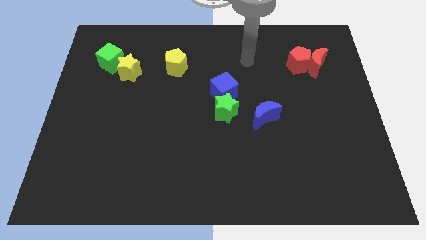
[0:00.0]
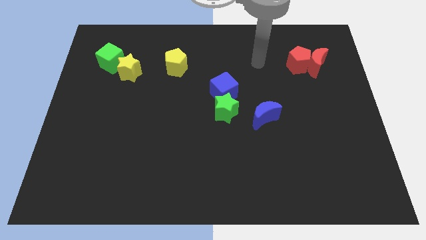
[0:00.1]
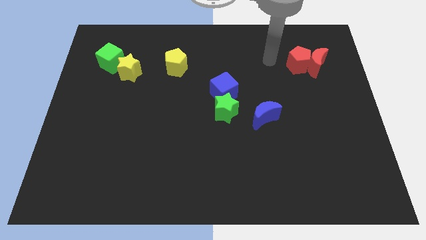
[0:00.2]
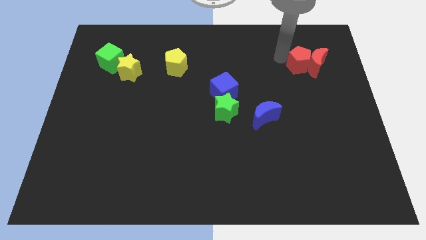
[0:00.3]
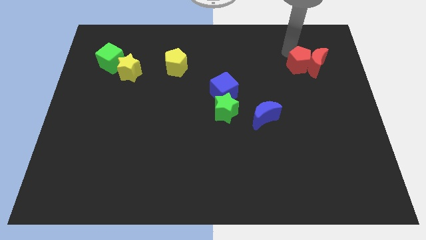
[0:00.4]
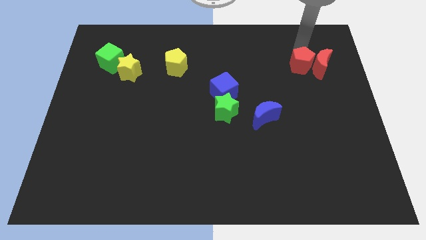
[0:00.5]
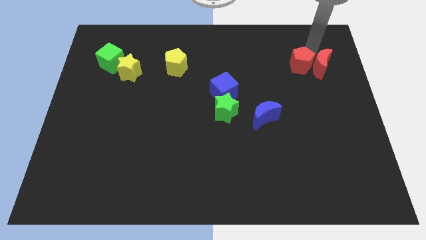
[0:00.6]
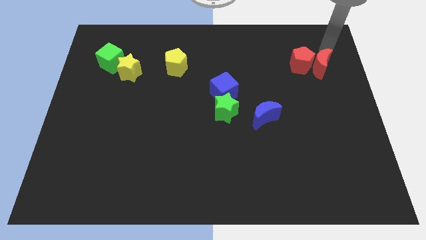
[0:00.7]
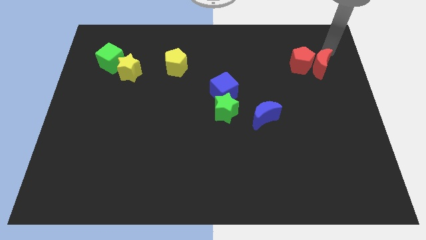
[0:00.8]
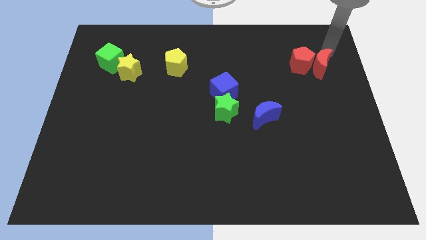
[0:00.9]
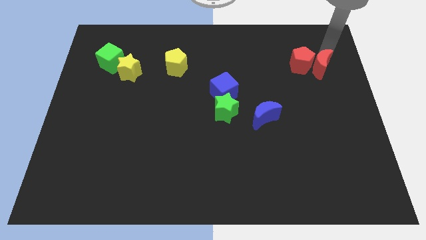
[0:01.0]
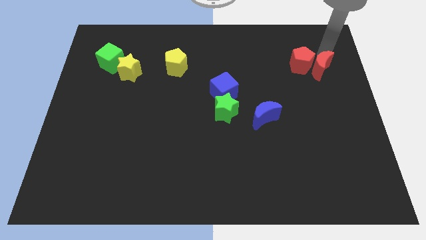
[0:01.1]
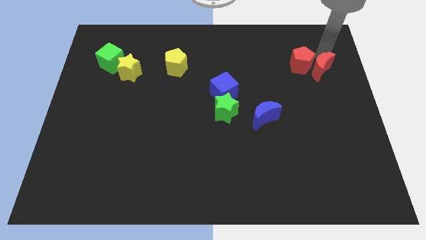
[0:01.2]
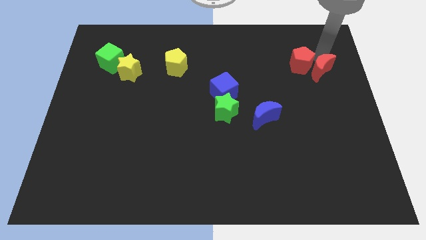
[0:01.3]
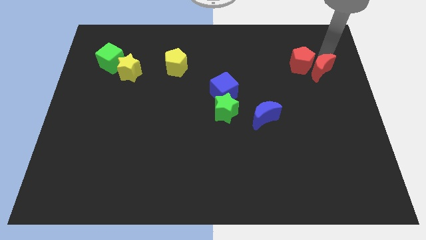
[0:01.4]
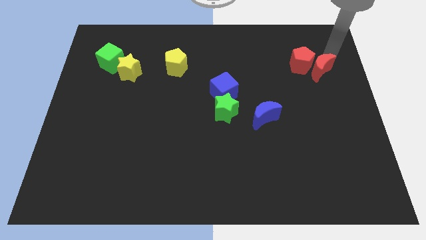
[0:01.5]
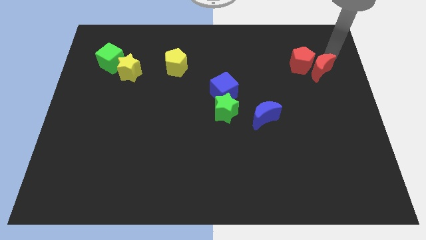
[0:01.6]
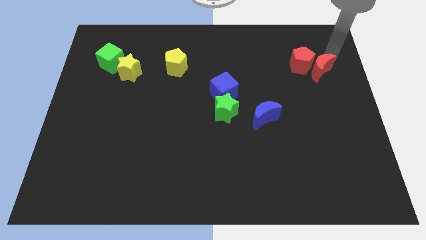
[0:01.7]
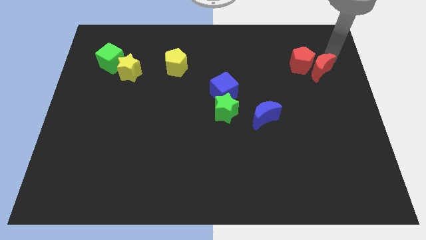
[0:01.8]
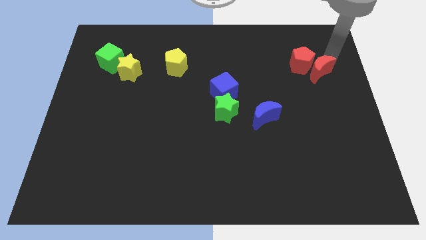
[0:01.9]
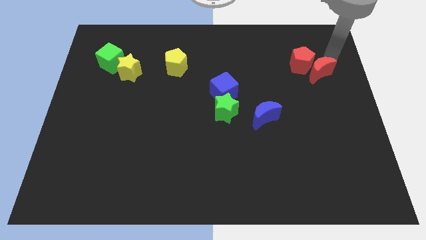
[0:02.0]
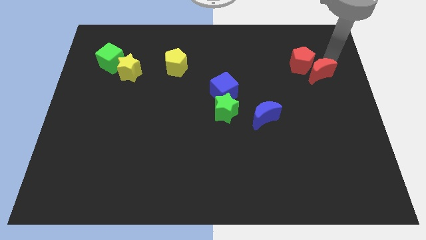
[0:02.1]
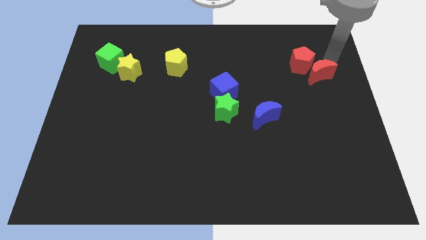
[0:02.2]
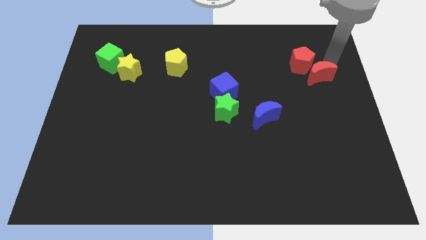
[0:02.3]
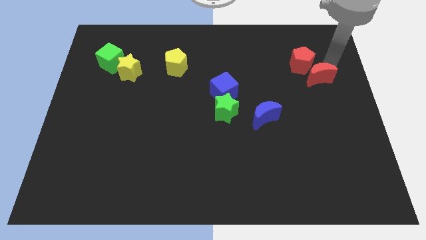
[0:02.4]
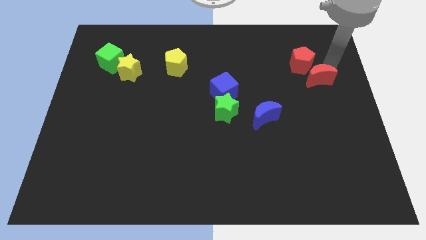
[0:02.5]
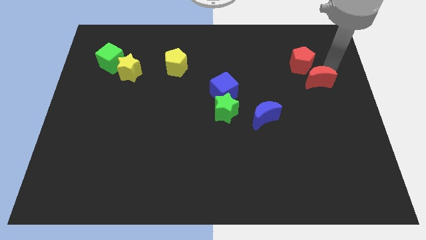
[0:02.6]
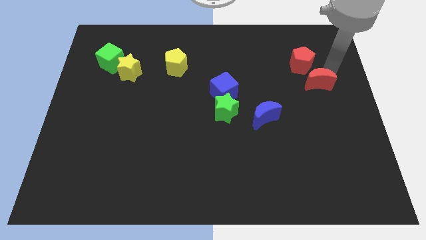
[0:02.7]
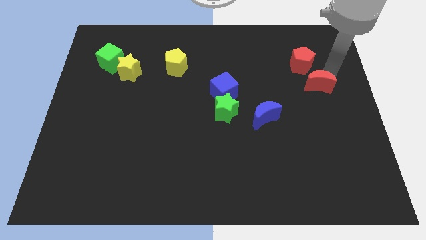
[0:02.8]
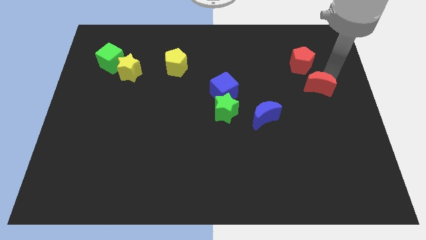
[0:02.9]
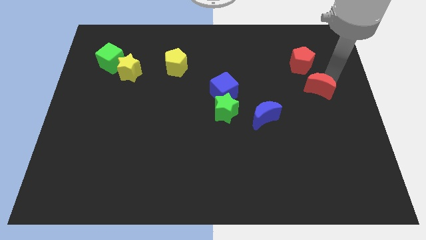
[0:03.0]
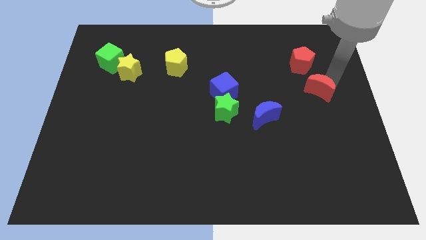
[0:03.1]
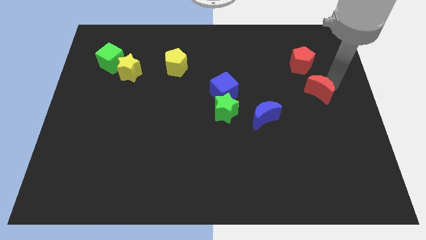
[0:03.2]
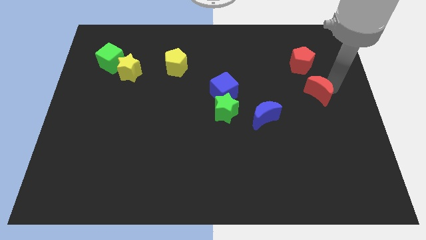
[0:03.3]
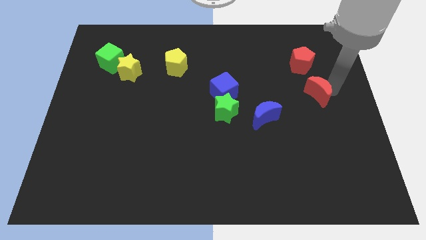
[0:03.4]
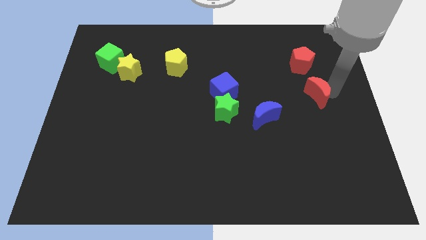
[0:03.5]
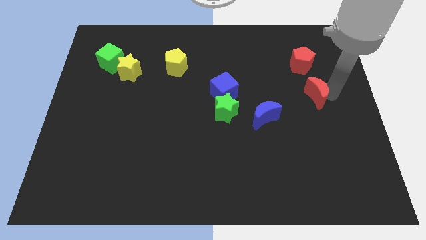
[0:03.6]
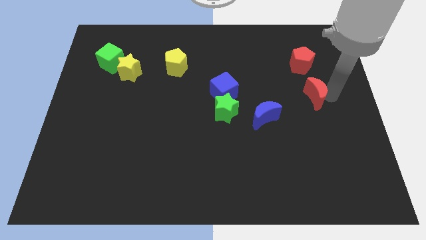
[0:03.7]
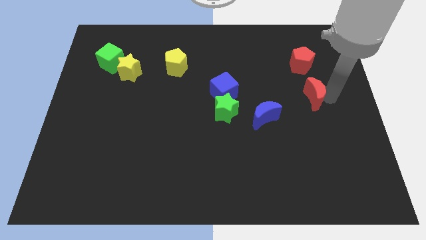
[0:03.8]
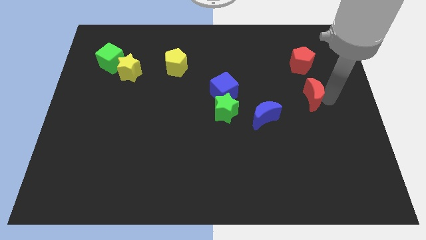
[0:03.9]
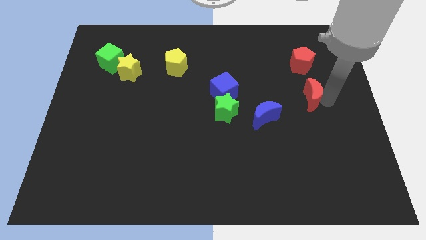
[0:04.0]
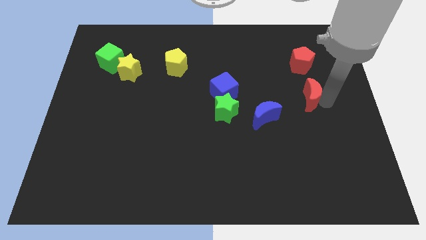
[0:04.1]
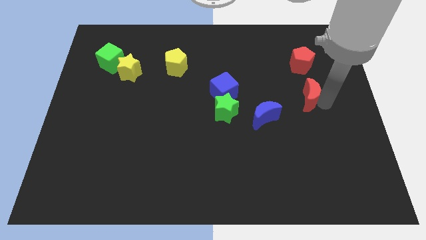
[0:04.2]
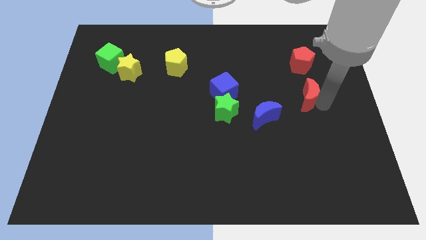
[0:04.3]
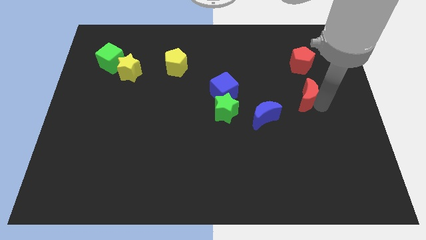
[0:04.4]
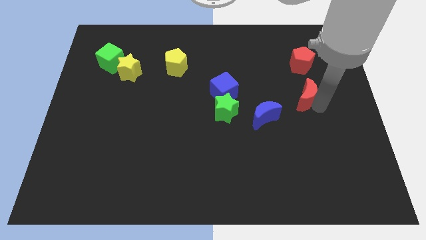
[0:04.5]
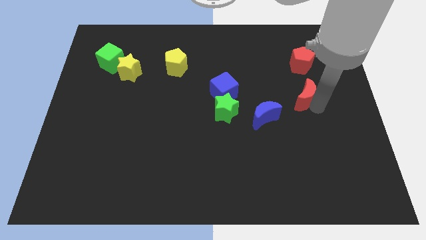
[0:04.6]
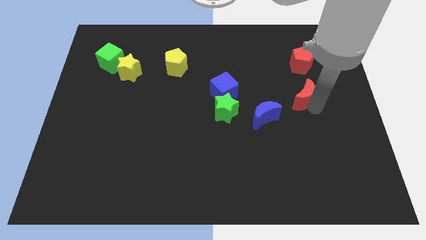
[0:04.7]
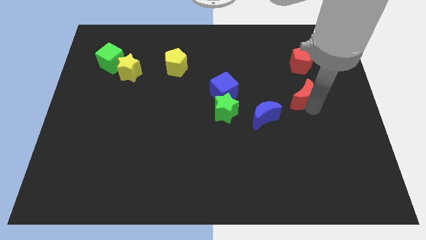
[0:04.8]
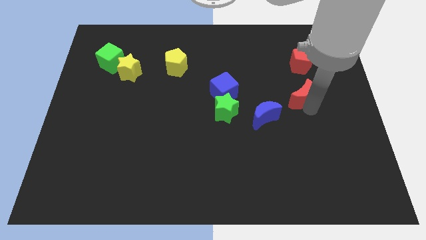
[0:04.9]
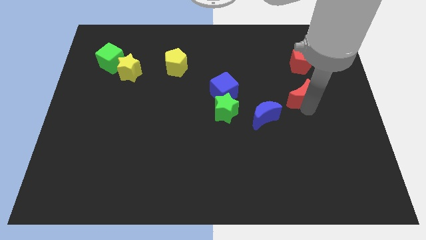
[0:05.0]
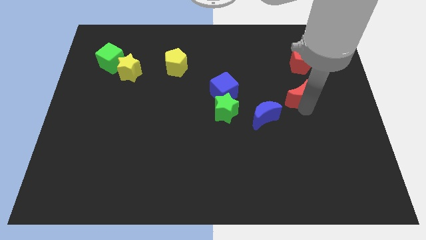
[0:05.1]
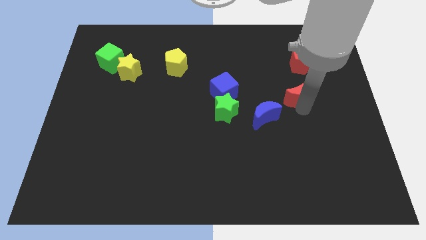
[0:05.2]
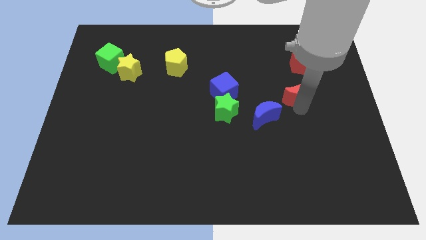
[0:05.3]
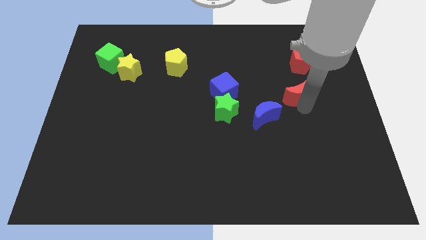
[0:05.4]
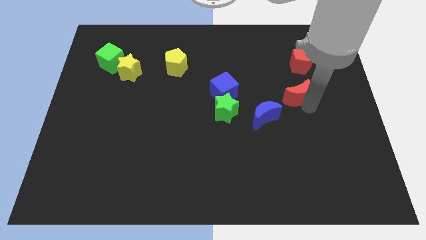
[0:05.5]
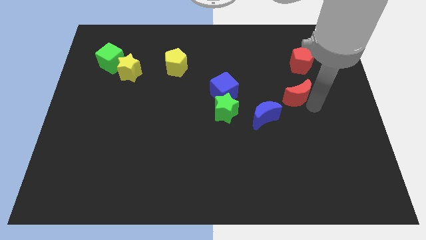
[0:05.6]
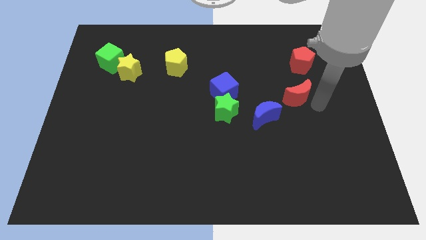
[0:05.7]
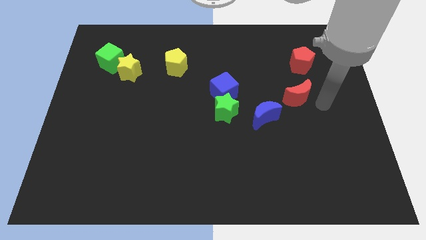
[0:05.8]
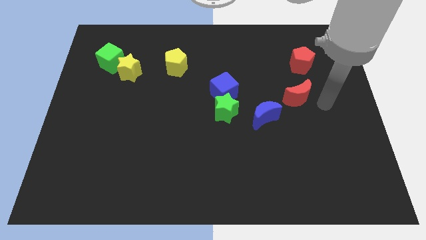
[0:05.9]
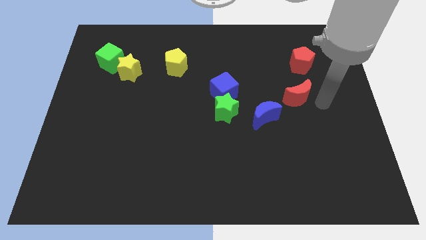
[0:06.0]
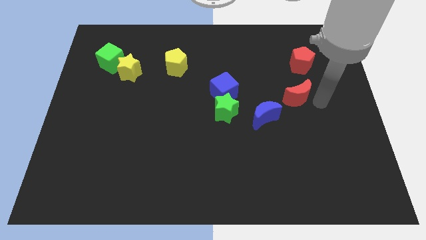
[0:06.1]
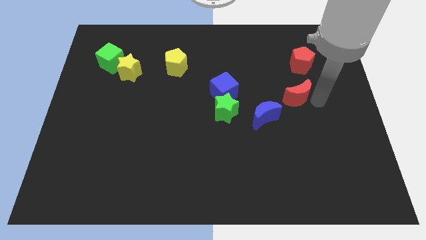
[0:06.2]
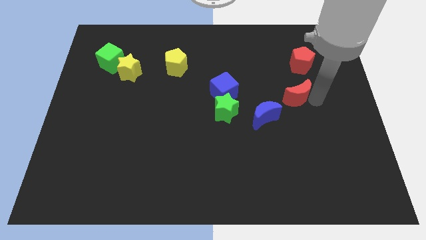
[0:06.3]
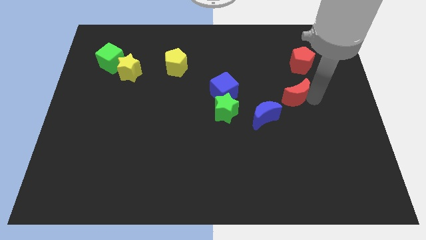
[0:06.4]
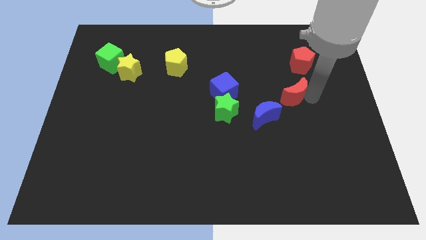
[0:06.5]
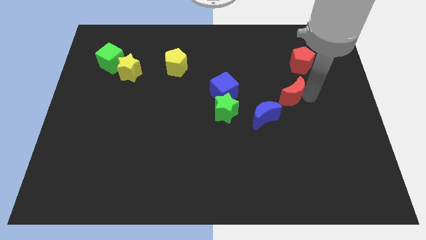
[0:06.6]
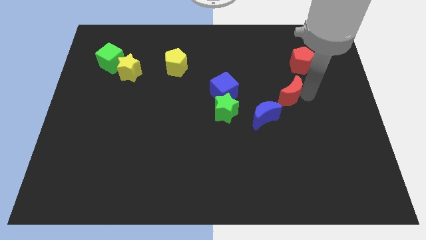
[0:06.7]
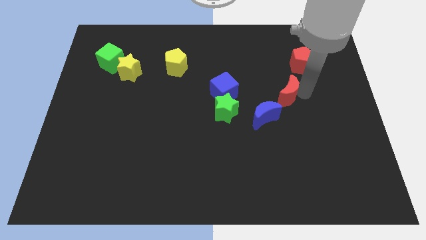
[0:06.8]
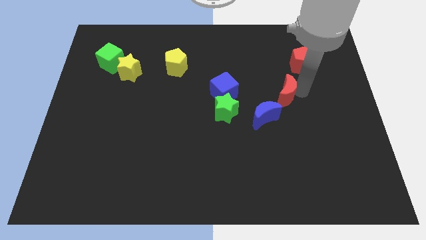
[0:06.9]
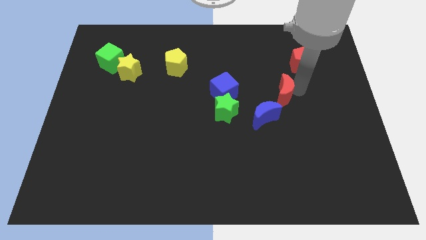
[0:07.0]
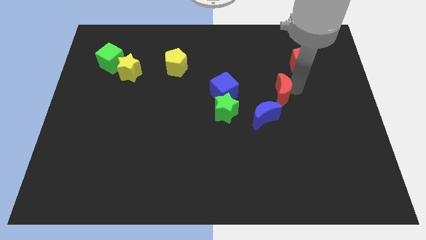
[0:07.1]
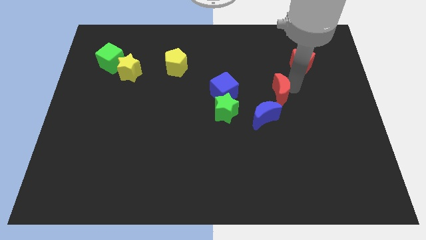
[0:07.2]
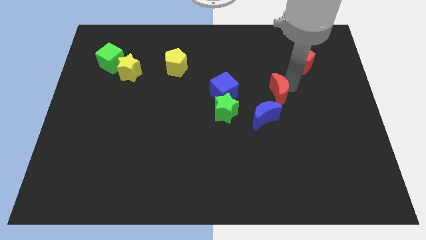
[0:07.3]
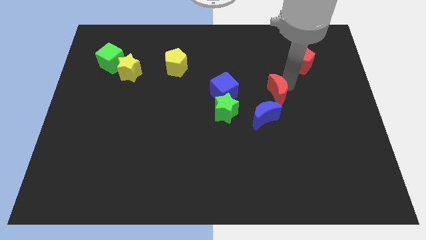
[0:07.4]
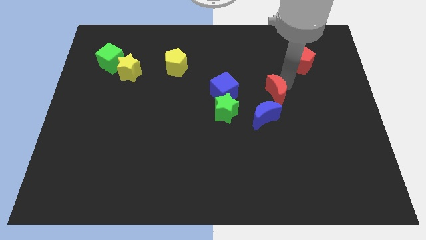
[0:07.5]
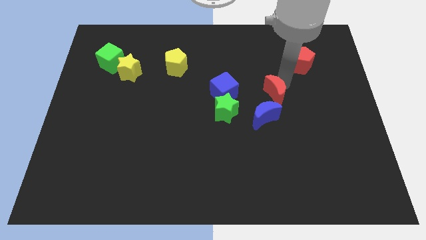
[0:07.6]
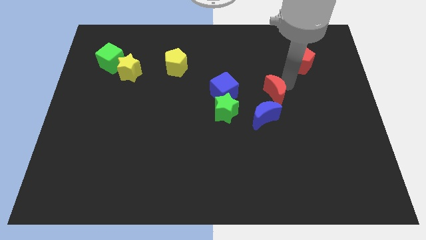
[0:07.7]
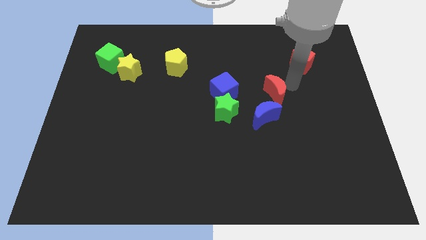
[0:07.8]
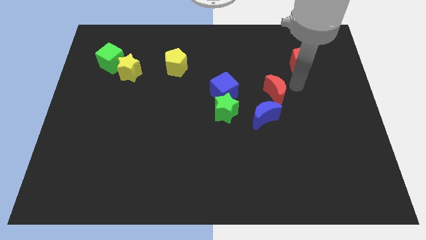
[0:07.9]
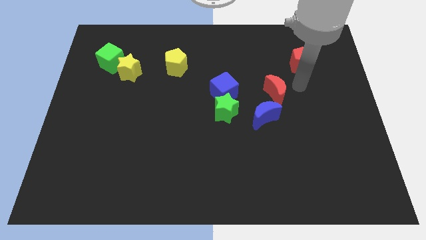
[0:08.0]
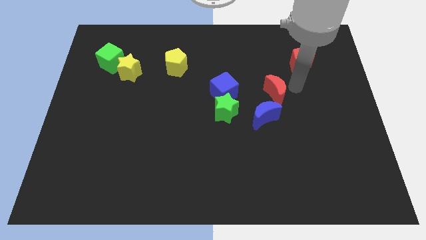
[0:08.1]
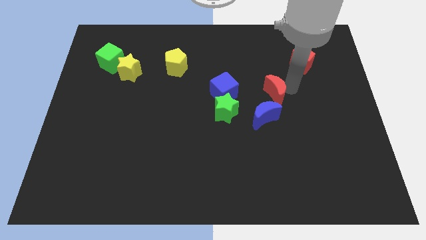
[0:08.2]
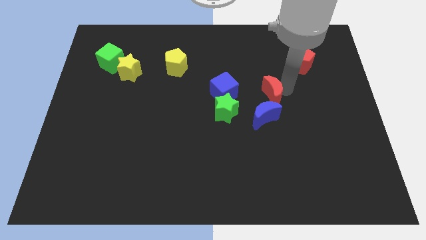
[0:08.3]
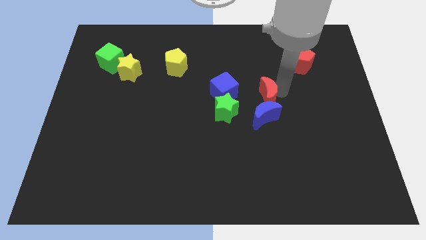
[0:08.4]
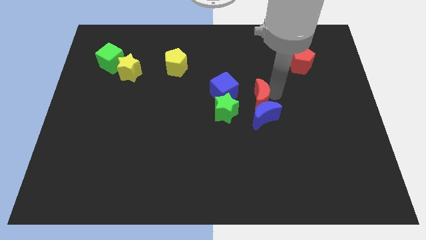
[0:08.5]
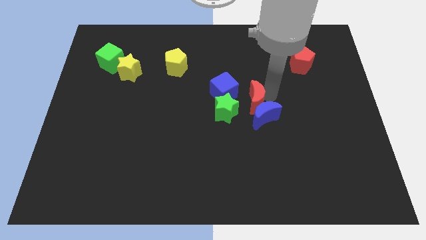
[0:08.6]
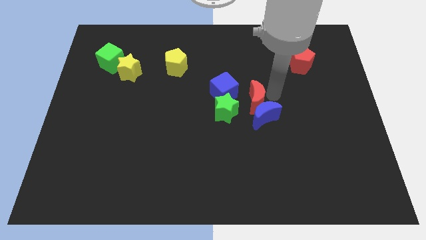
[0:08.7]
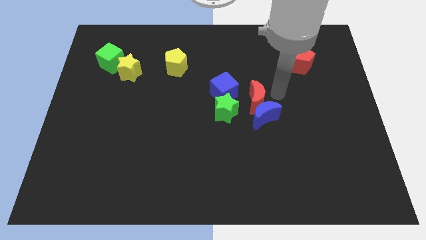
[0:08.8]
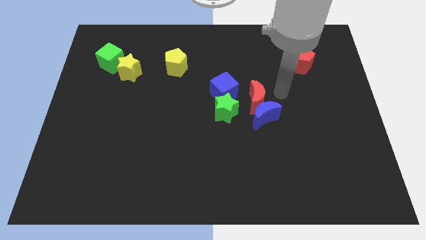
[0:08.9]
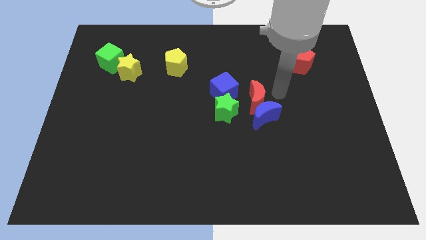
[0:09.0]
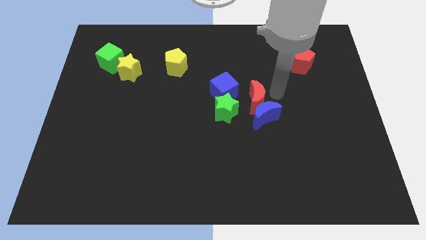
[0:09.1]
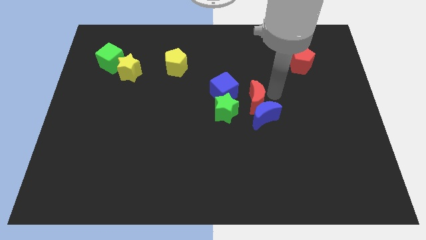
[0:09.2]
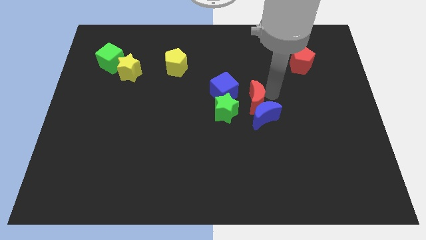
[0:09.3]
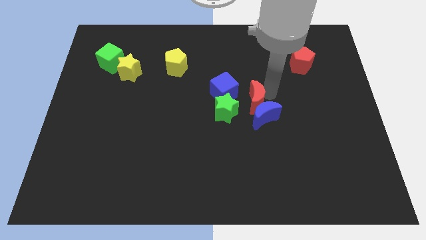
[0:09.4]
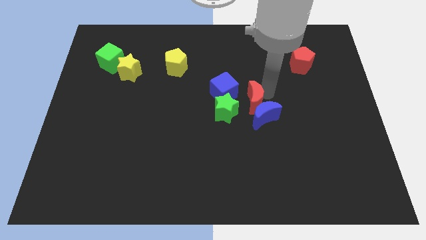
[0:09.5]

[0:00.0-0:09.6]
move the red moon downwards and to the left diagonally
